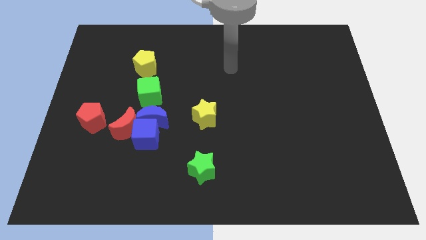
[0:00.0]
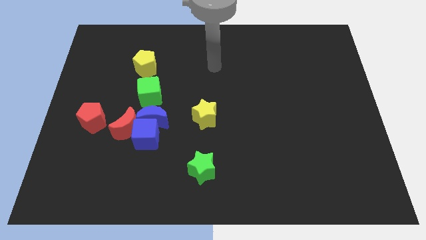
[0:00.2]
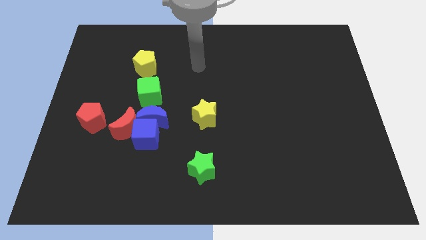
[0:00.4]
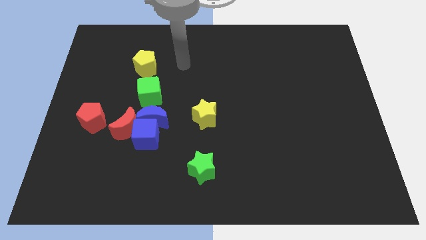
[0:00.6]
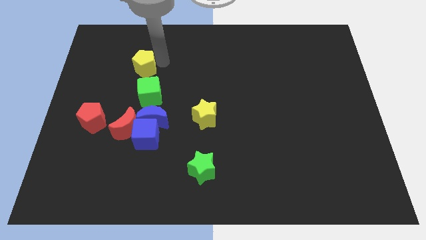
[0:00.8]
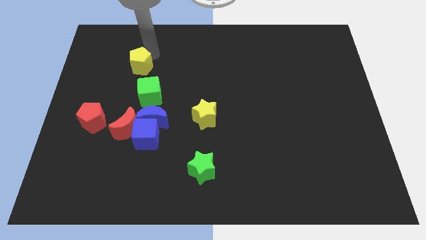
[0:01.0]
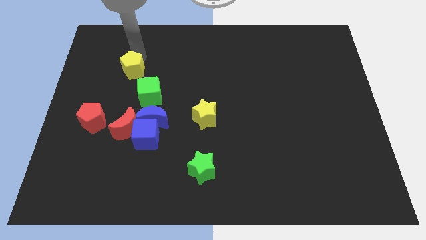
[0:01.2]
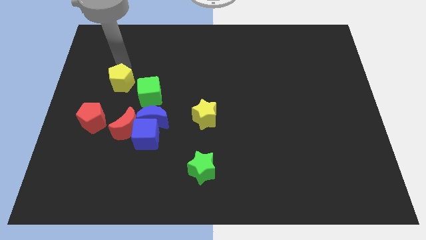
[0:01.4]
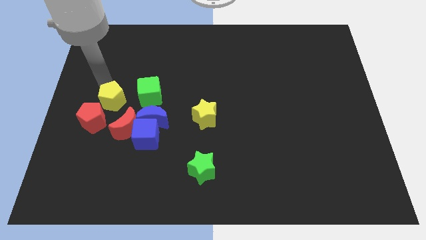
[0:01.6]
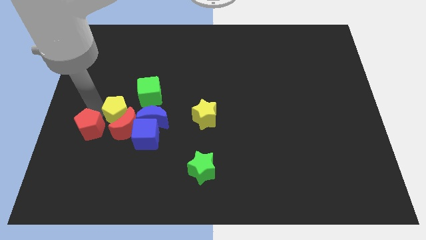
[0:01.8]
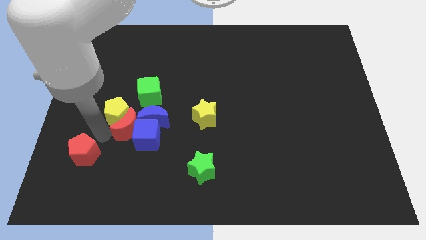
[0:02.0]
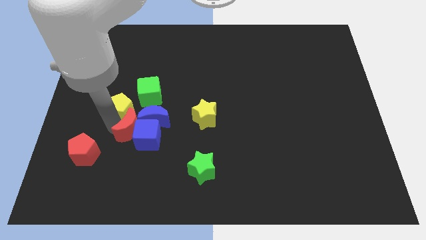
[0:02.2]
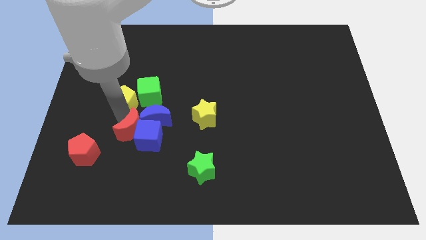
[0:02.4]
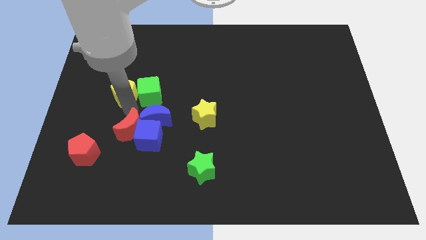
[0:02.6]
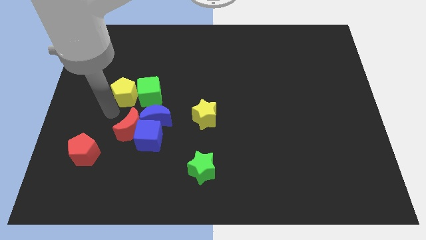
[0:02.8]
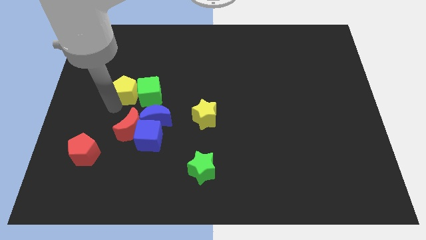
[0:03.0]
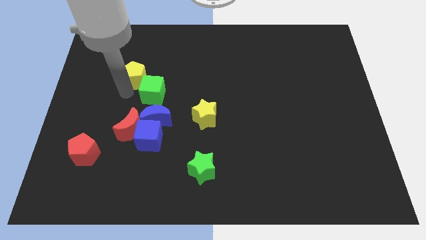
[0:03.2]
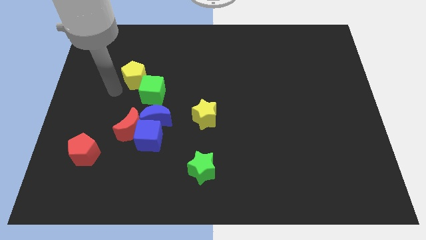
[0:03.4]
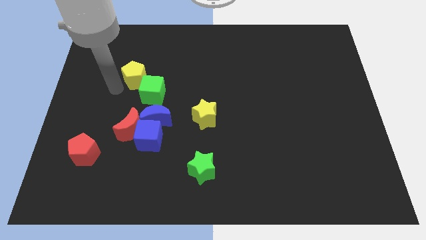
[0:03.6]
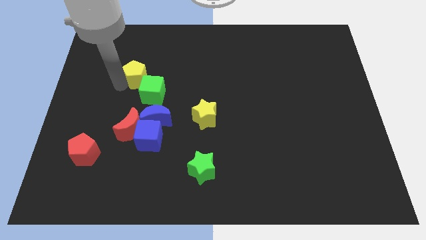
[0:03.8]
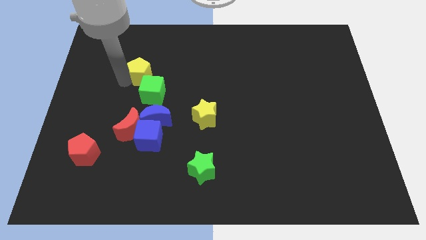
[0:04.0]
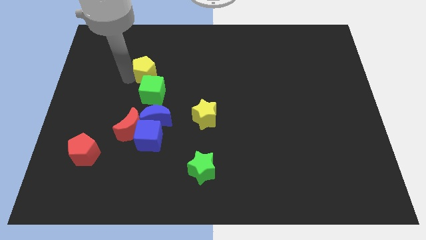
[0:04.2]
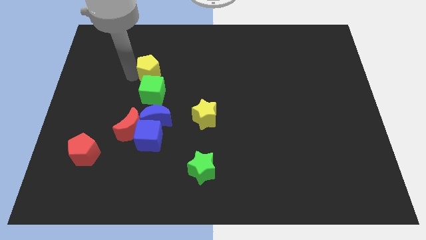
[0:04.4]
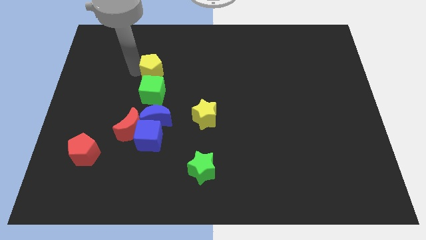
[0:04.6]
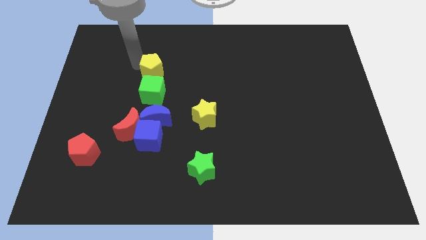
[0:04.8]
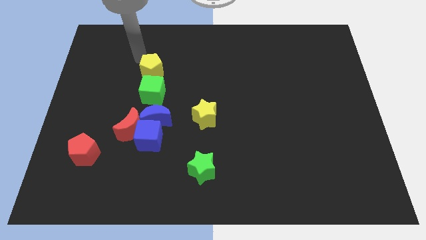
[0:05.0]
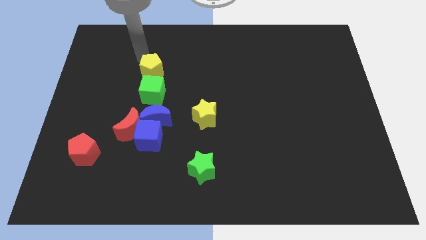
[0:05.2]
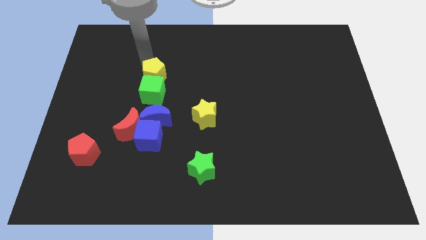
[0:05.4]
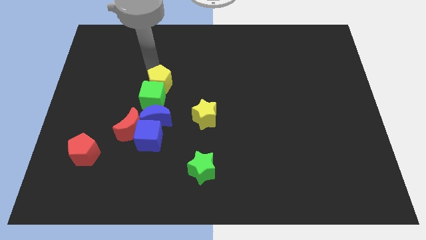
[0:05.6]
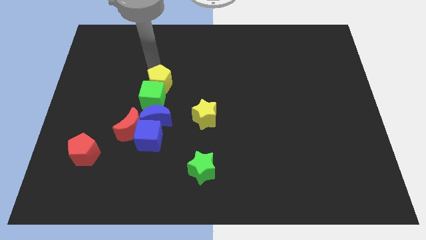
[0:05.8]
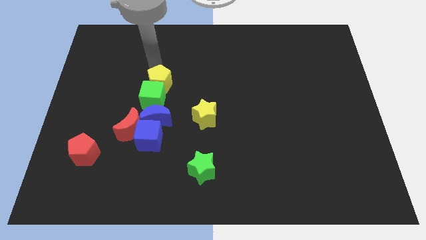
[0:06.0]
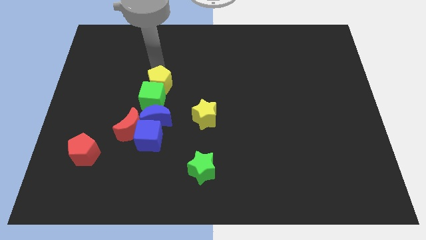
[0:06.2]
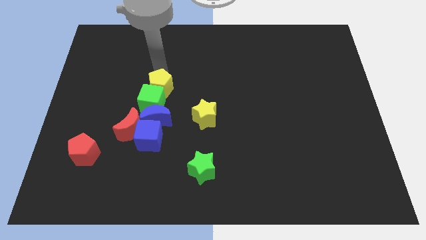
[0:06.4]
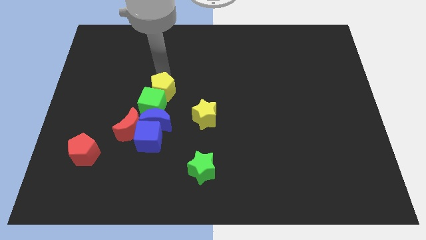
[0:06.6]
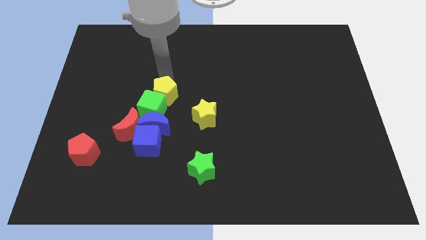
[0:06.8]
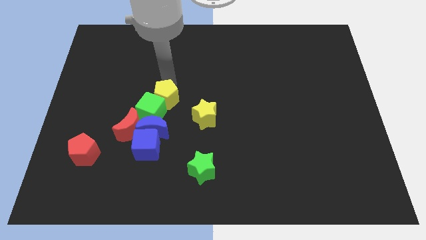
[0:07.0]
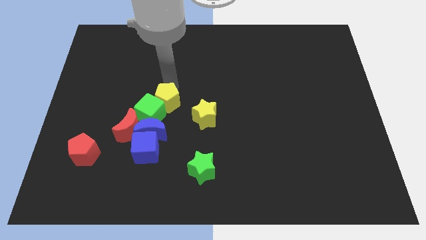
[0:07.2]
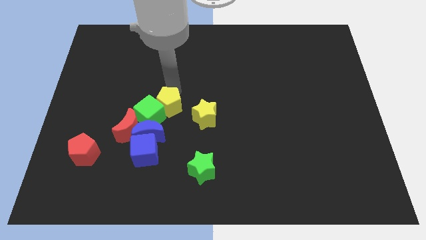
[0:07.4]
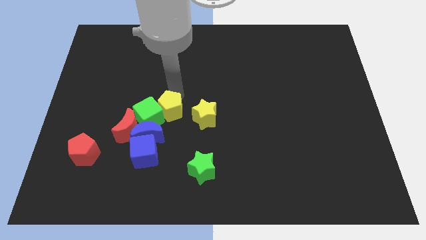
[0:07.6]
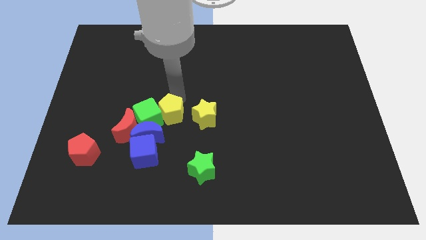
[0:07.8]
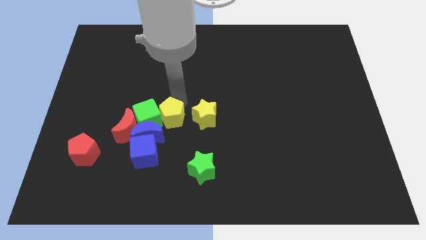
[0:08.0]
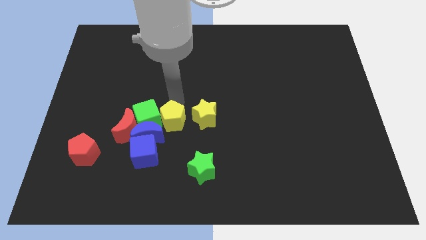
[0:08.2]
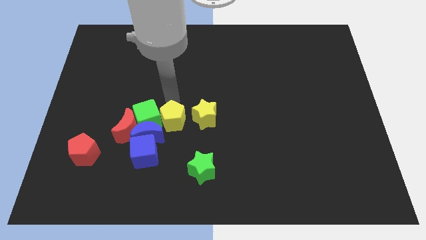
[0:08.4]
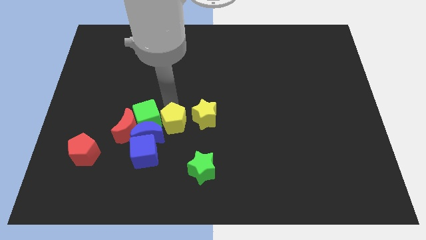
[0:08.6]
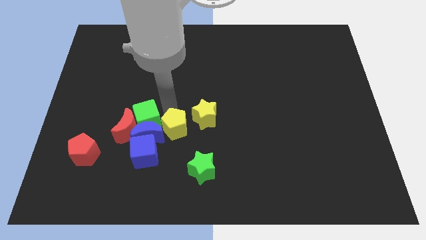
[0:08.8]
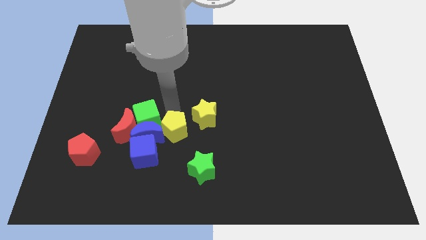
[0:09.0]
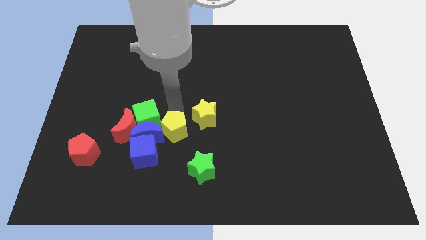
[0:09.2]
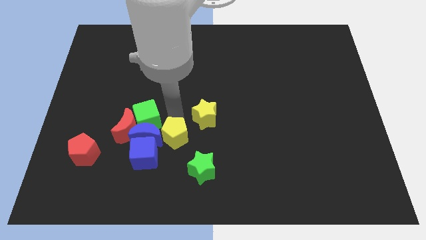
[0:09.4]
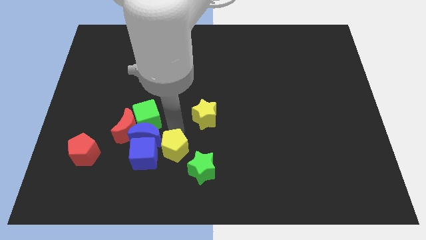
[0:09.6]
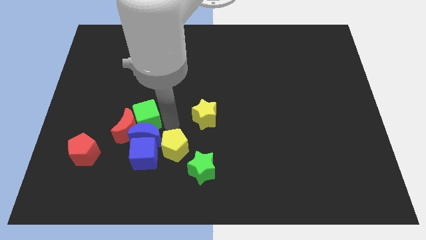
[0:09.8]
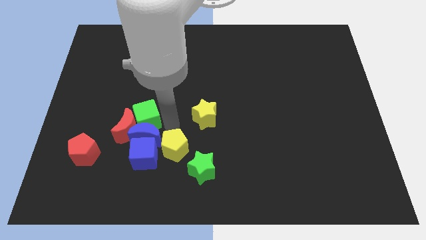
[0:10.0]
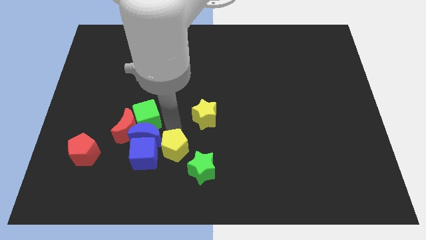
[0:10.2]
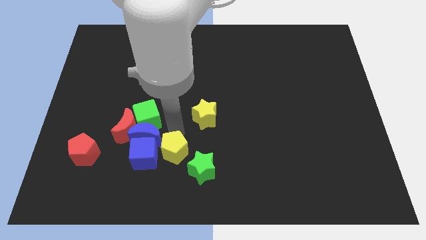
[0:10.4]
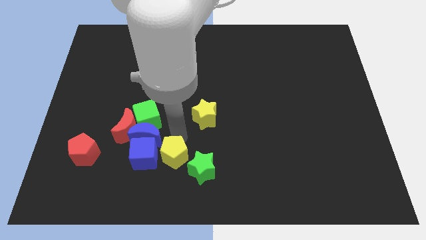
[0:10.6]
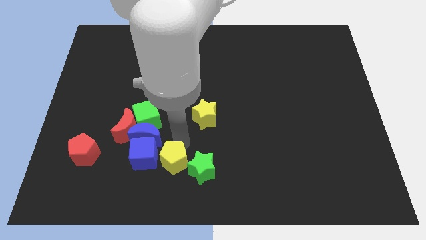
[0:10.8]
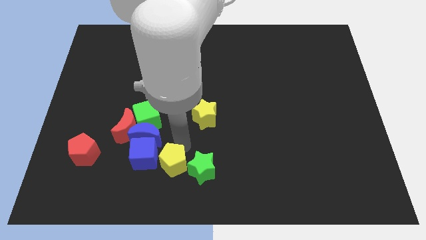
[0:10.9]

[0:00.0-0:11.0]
push the yellow pentagon to the bottom side

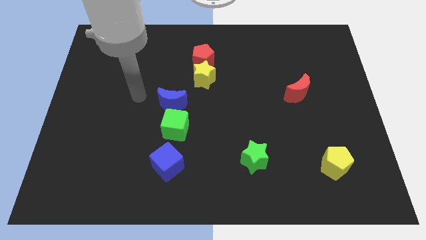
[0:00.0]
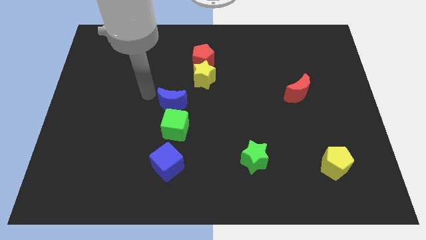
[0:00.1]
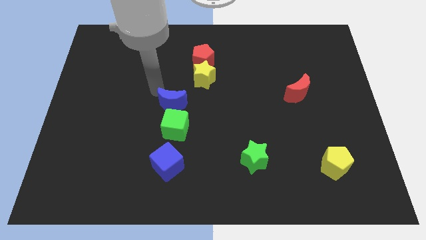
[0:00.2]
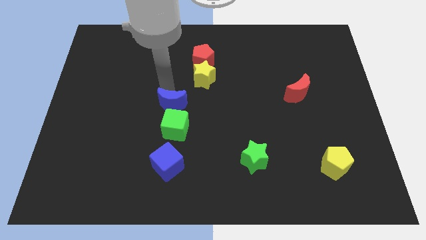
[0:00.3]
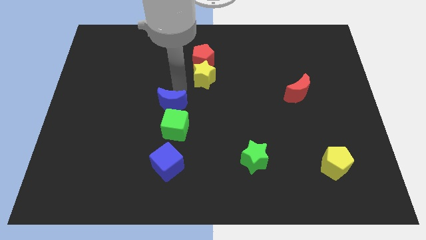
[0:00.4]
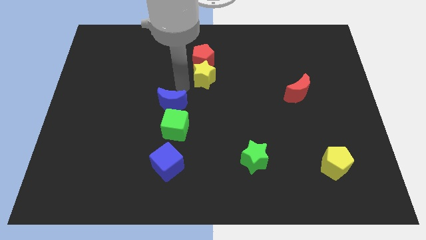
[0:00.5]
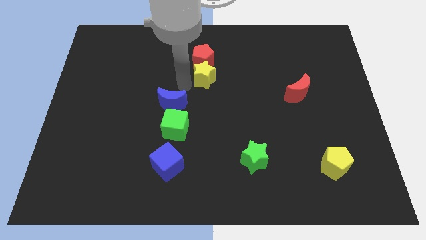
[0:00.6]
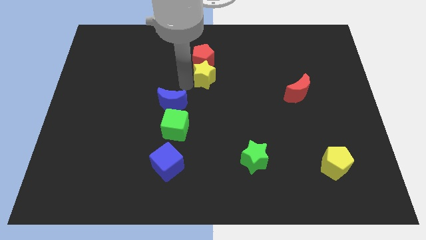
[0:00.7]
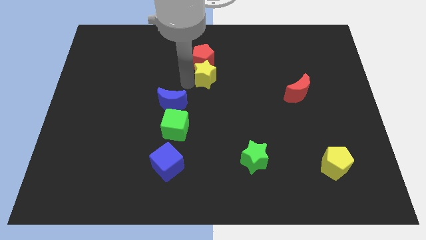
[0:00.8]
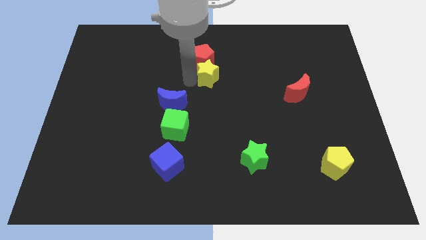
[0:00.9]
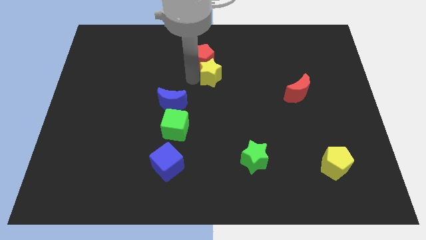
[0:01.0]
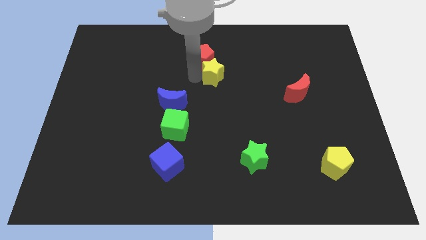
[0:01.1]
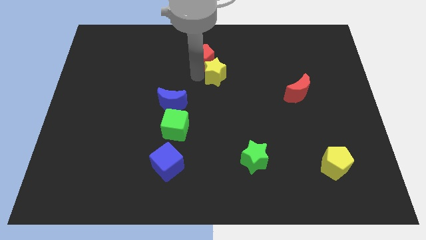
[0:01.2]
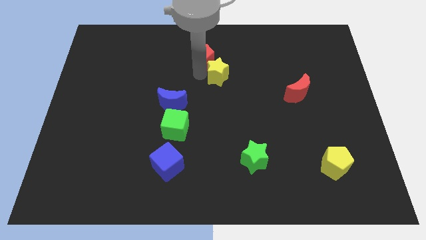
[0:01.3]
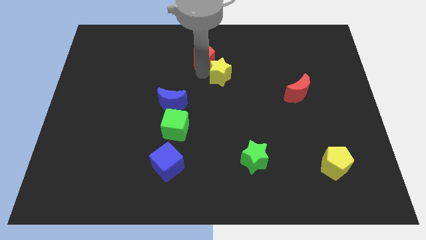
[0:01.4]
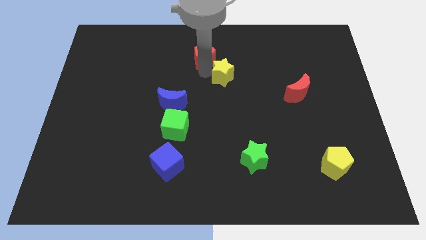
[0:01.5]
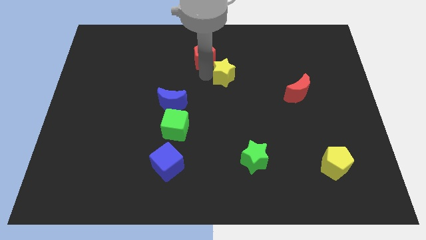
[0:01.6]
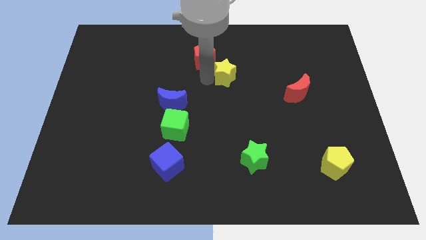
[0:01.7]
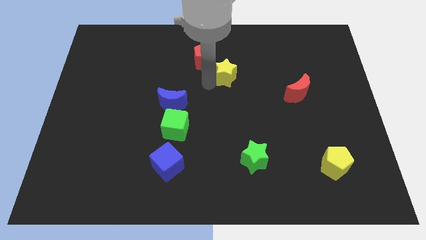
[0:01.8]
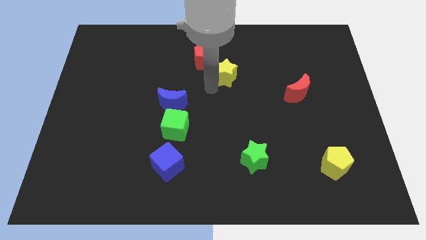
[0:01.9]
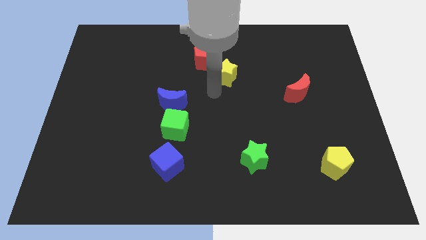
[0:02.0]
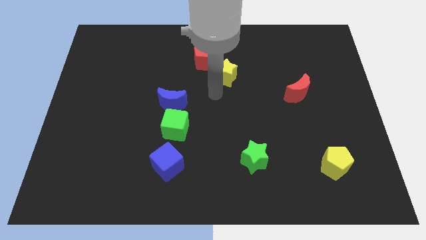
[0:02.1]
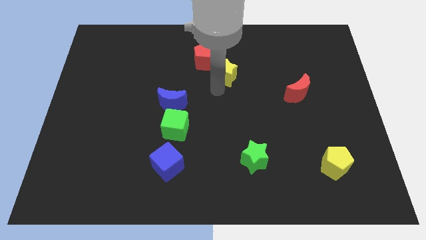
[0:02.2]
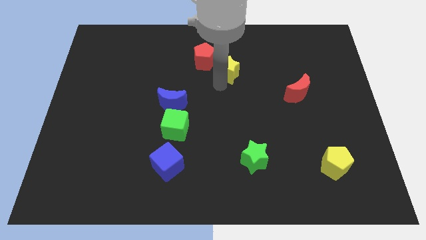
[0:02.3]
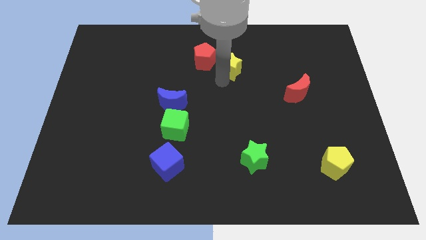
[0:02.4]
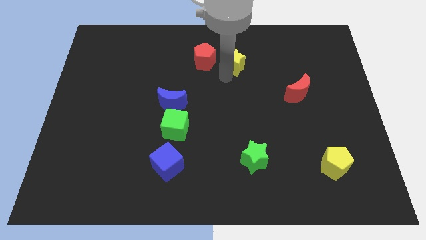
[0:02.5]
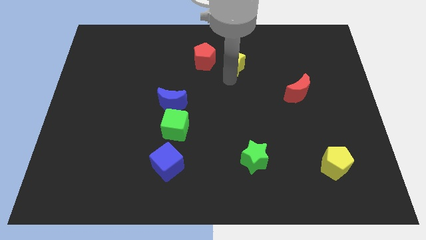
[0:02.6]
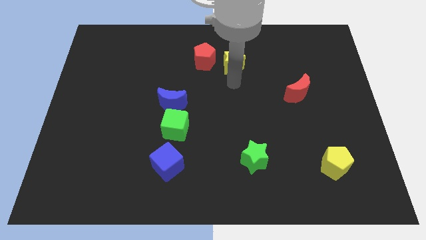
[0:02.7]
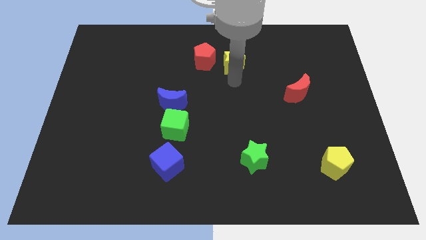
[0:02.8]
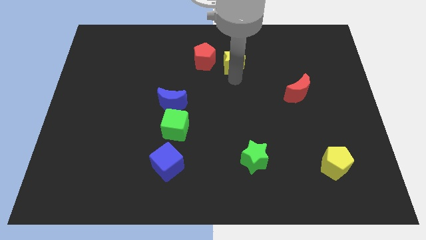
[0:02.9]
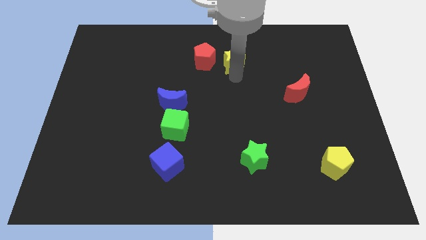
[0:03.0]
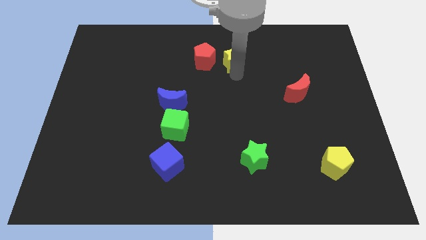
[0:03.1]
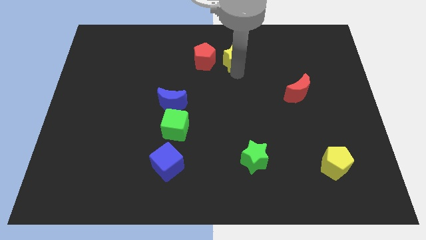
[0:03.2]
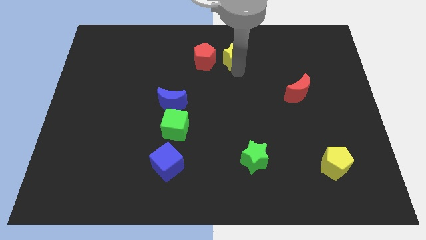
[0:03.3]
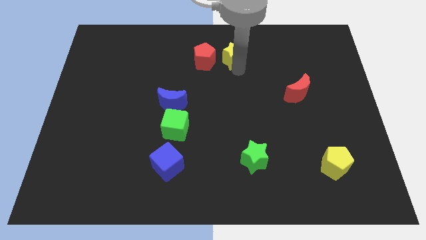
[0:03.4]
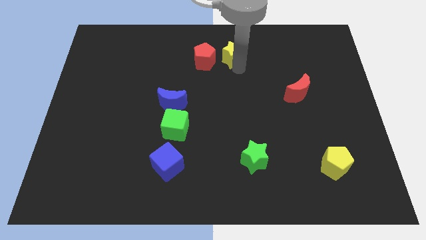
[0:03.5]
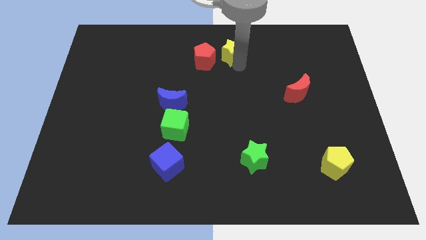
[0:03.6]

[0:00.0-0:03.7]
slide the yellow star to the top
